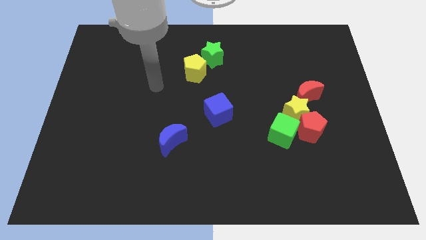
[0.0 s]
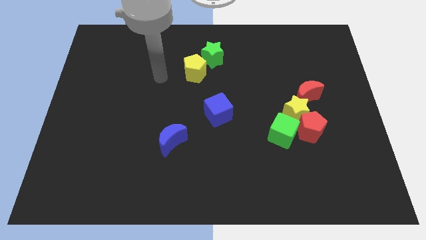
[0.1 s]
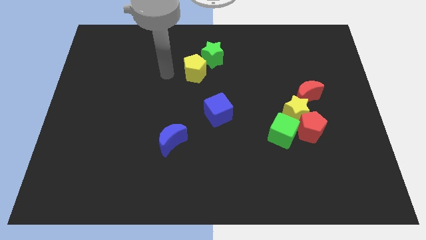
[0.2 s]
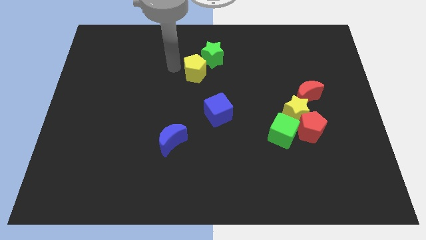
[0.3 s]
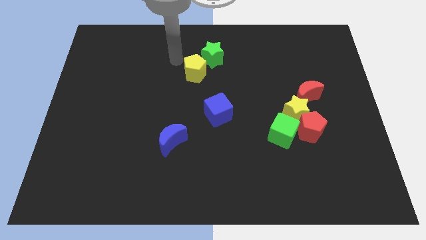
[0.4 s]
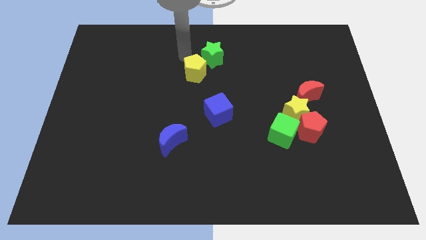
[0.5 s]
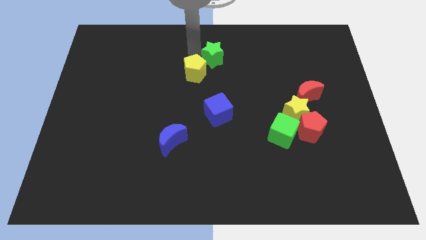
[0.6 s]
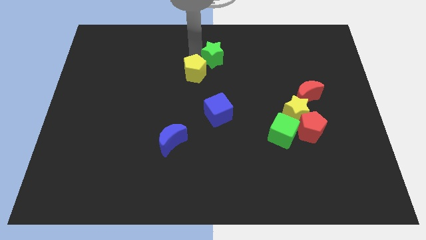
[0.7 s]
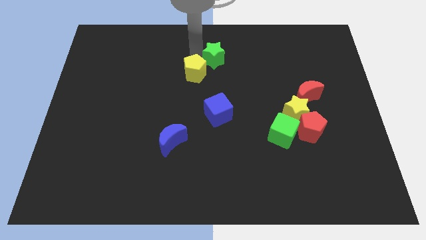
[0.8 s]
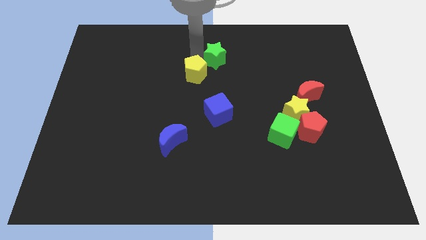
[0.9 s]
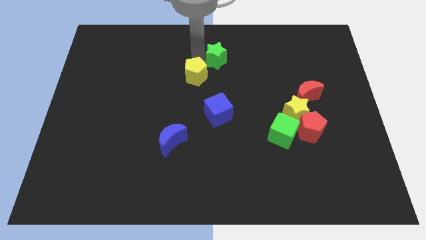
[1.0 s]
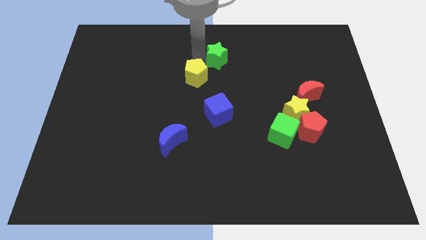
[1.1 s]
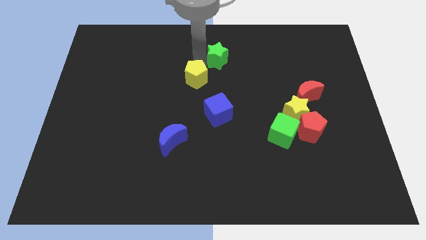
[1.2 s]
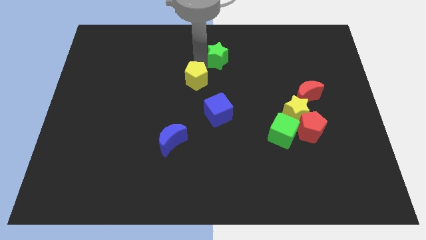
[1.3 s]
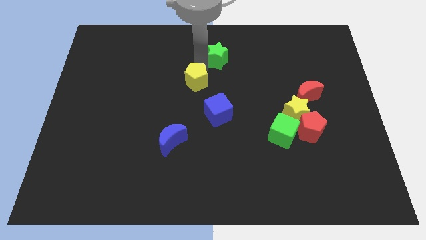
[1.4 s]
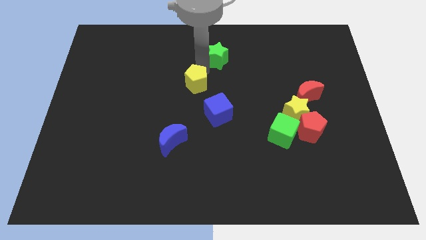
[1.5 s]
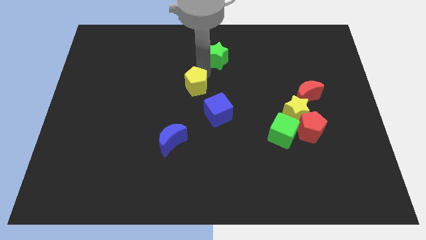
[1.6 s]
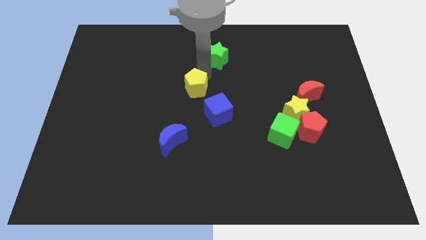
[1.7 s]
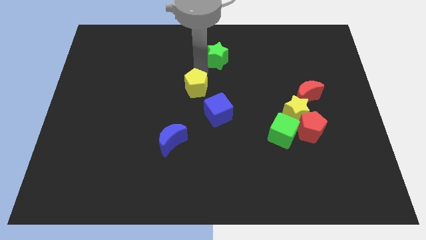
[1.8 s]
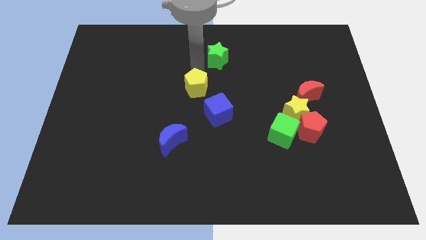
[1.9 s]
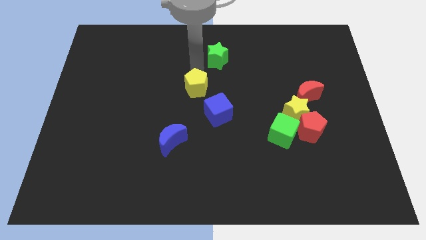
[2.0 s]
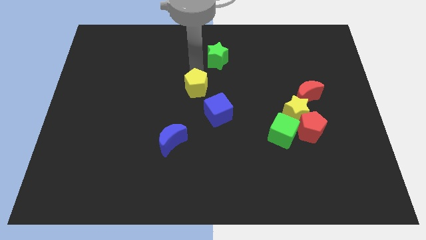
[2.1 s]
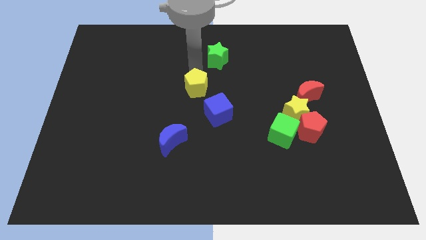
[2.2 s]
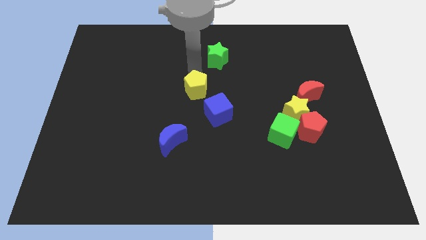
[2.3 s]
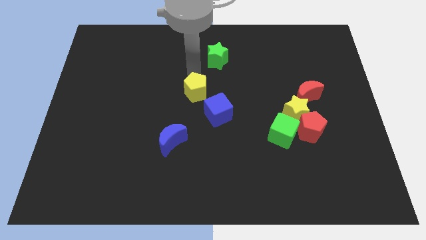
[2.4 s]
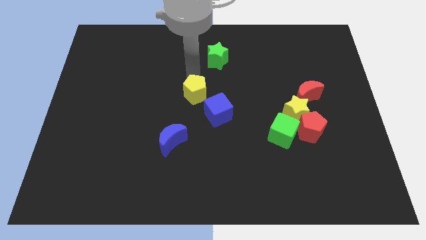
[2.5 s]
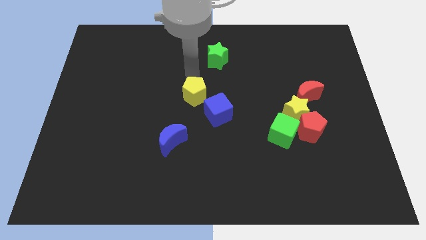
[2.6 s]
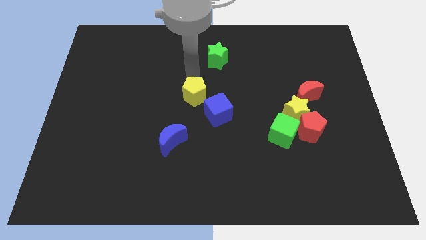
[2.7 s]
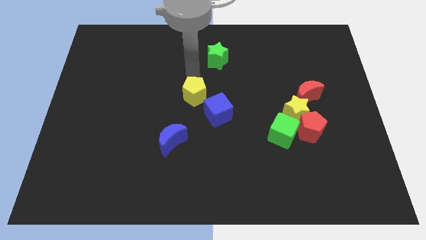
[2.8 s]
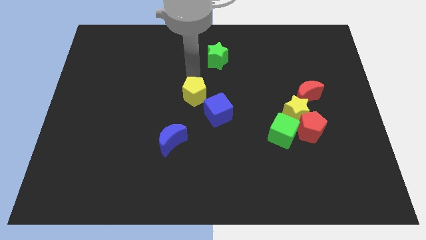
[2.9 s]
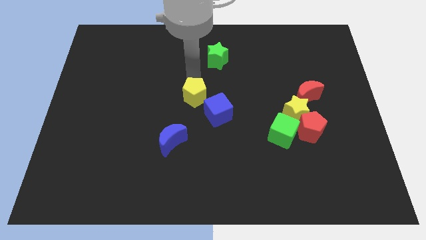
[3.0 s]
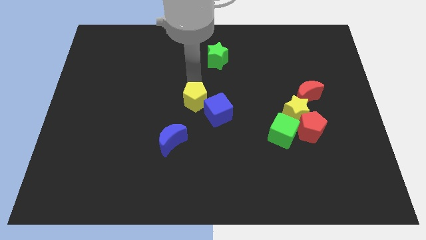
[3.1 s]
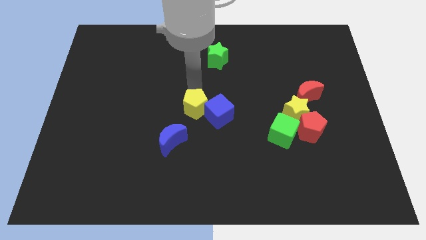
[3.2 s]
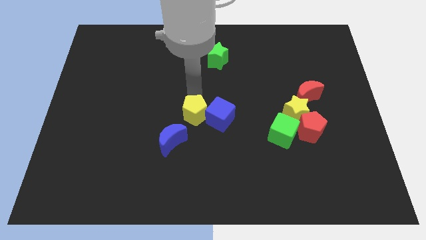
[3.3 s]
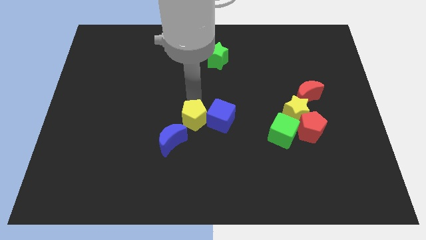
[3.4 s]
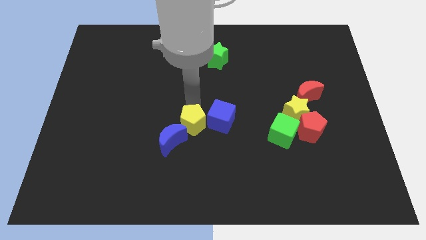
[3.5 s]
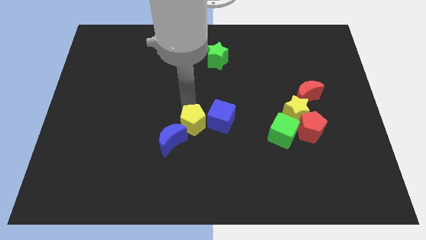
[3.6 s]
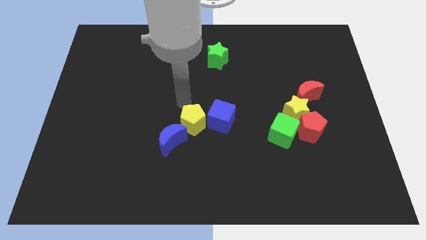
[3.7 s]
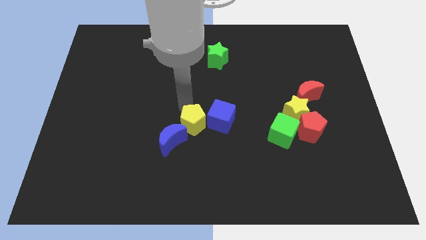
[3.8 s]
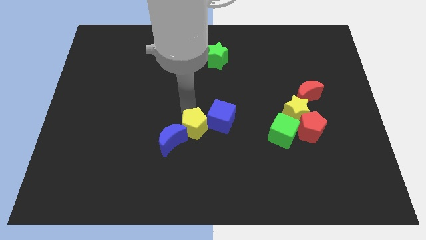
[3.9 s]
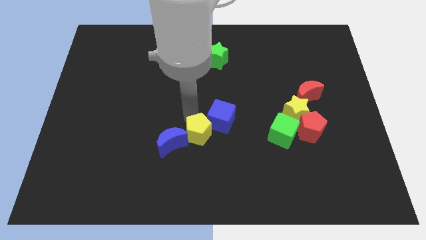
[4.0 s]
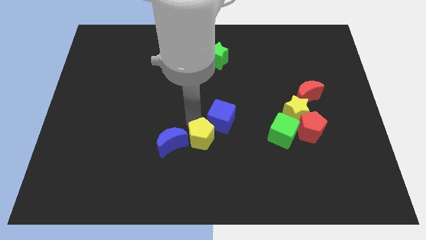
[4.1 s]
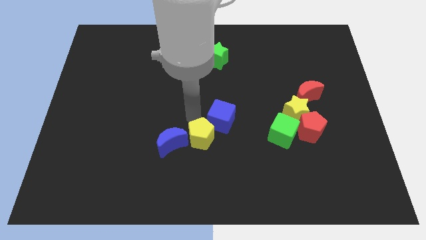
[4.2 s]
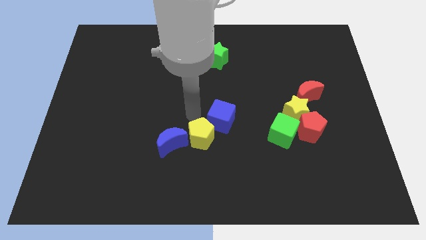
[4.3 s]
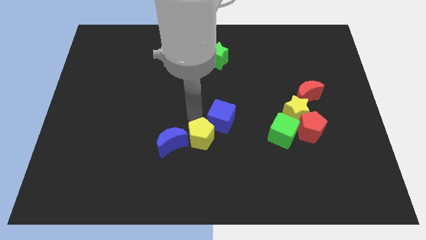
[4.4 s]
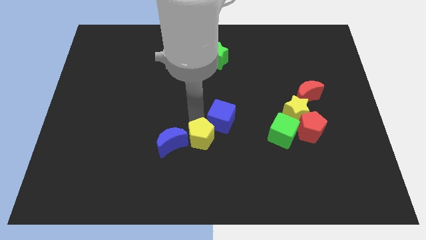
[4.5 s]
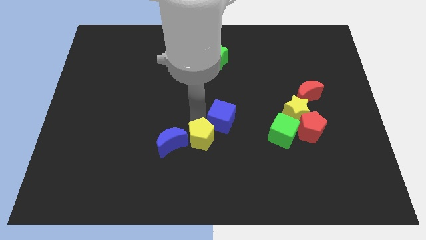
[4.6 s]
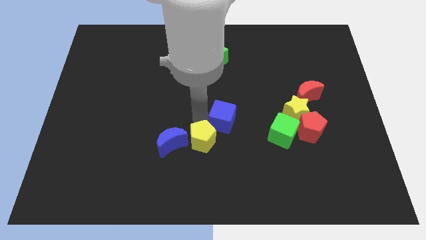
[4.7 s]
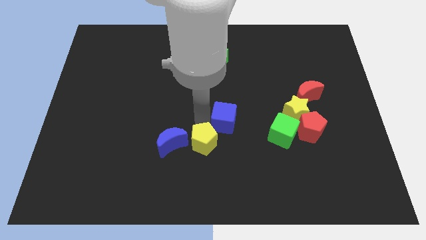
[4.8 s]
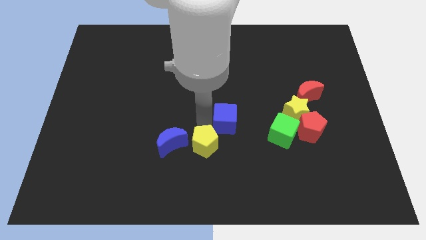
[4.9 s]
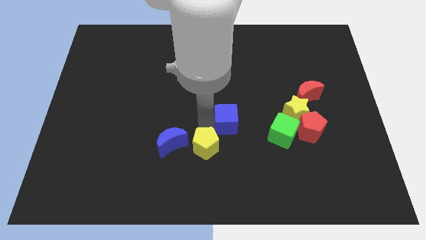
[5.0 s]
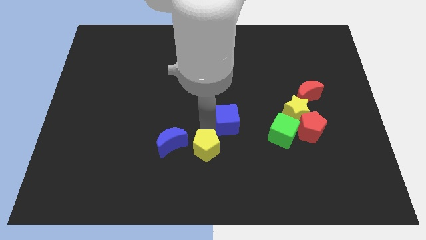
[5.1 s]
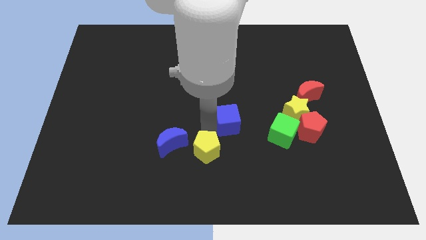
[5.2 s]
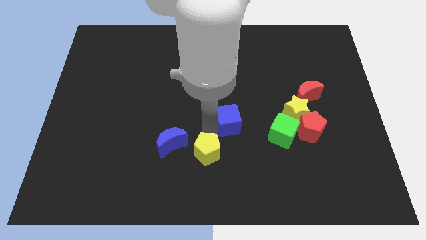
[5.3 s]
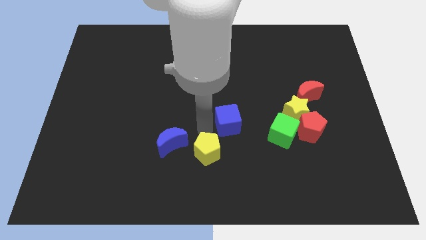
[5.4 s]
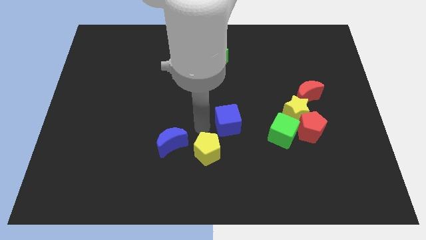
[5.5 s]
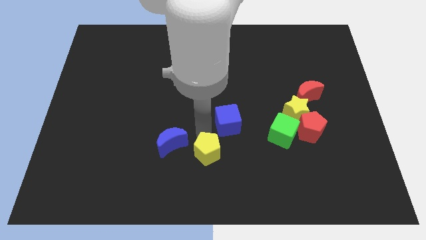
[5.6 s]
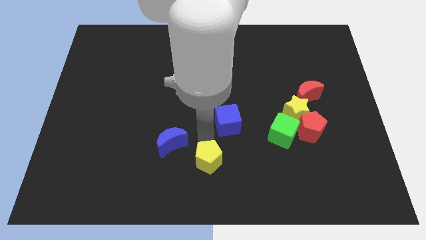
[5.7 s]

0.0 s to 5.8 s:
push the yellow pentagon to the bottom side
